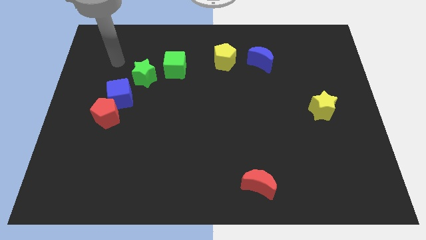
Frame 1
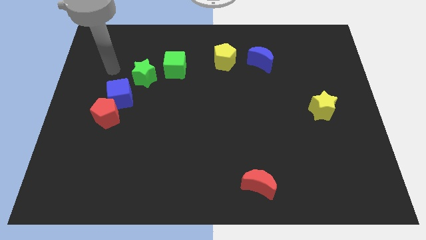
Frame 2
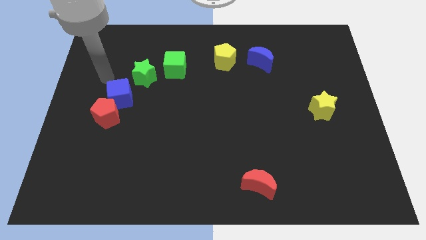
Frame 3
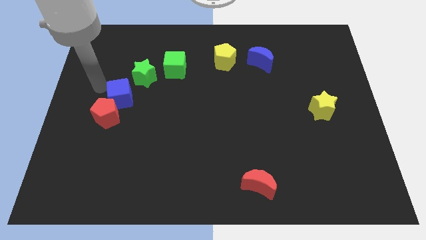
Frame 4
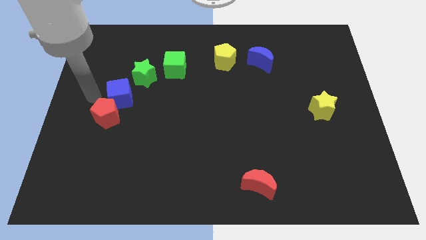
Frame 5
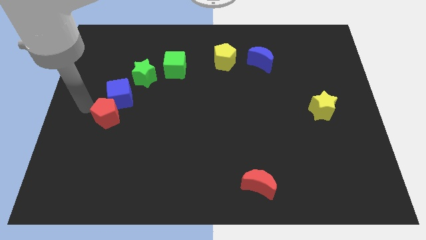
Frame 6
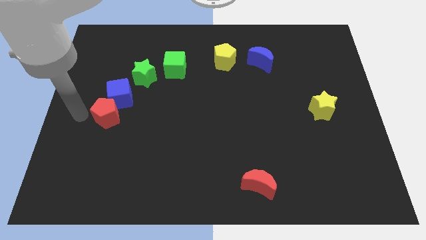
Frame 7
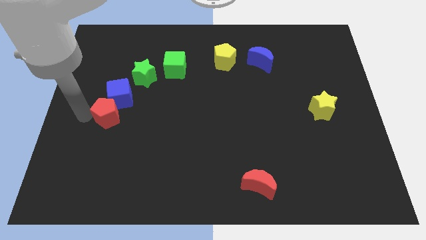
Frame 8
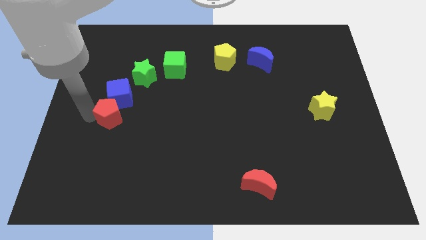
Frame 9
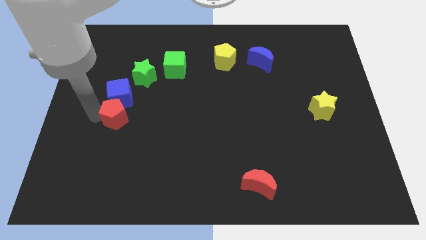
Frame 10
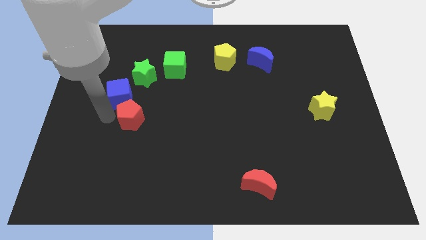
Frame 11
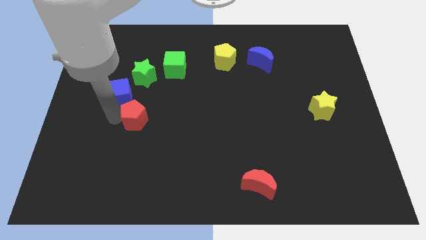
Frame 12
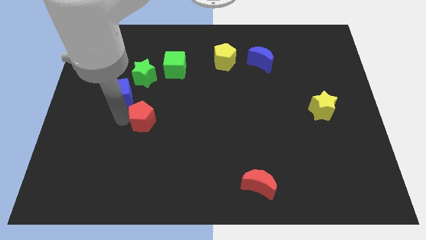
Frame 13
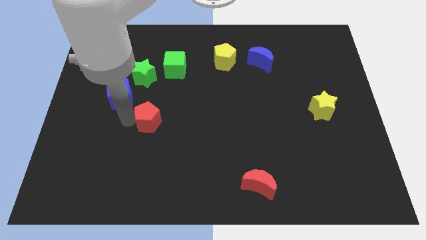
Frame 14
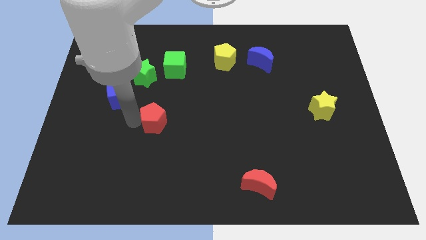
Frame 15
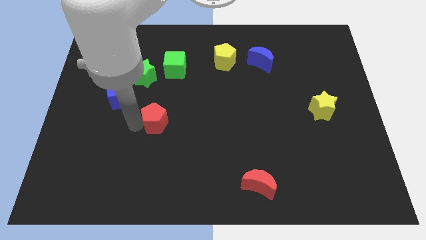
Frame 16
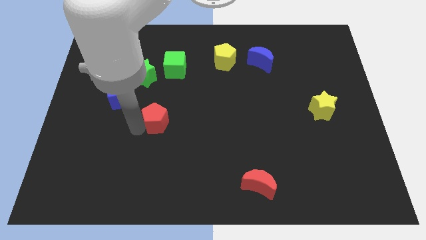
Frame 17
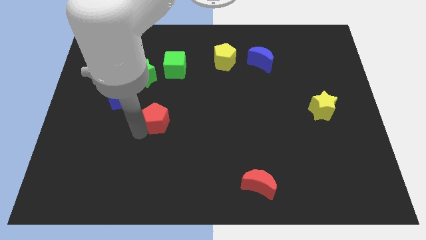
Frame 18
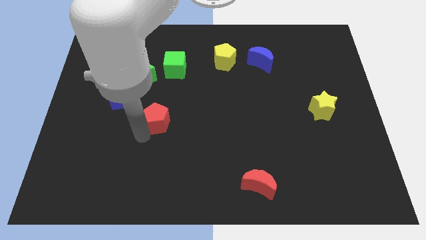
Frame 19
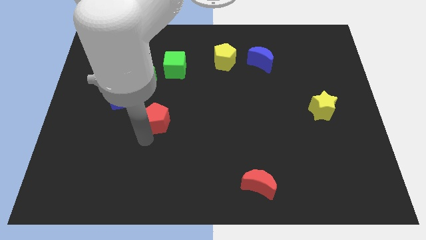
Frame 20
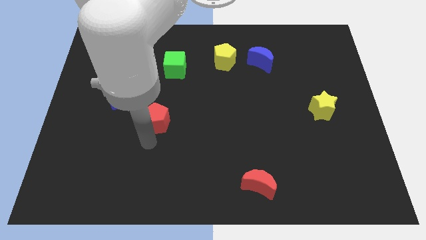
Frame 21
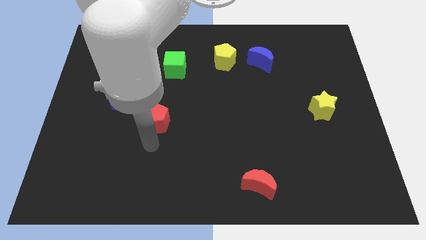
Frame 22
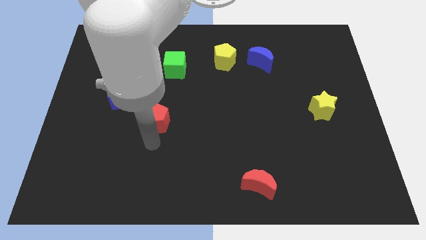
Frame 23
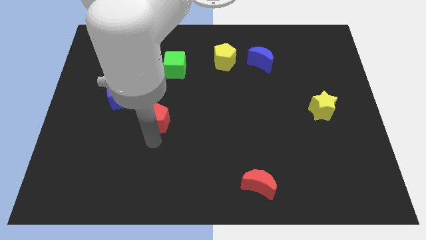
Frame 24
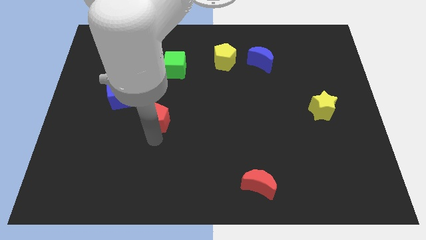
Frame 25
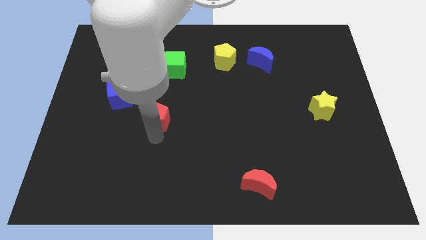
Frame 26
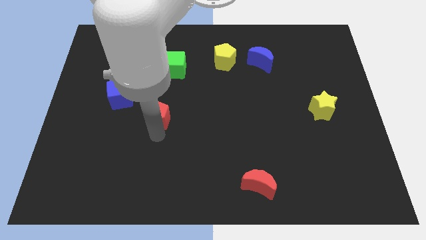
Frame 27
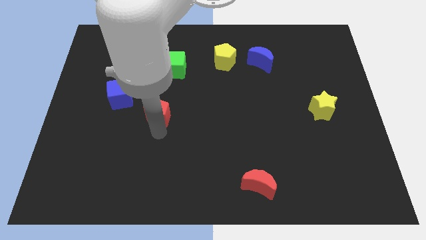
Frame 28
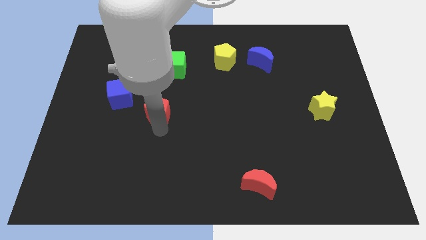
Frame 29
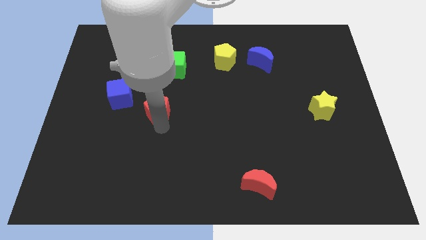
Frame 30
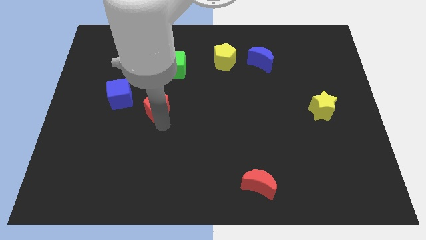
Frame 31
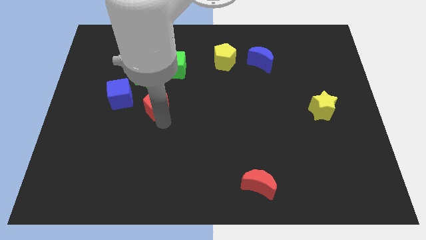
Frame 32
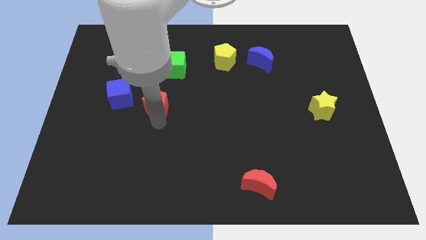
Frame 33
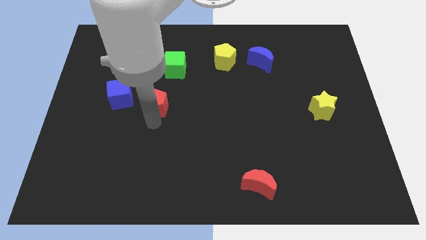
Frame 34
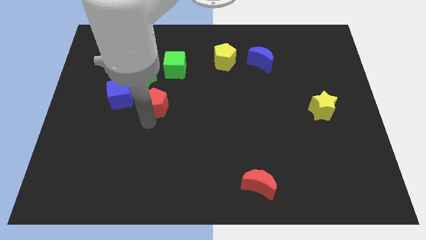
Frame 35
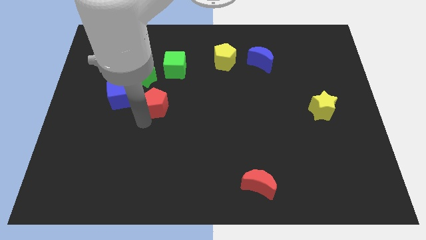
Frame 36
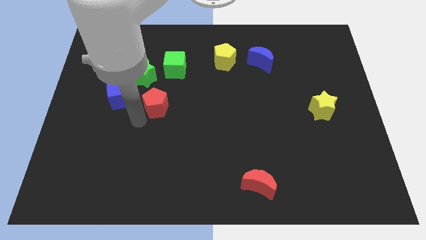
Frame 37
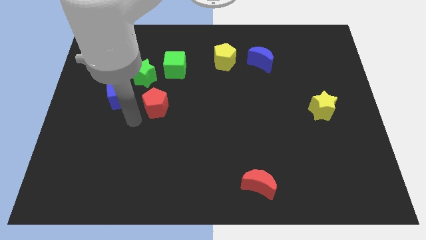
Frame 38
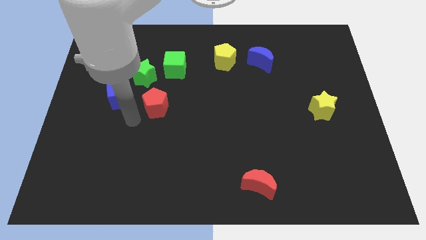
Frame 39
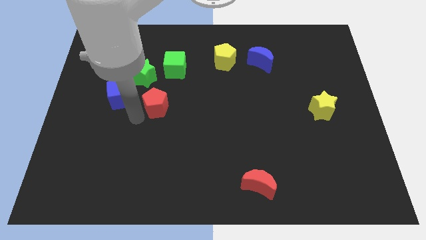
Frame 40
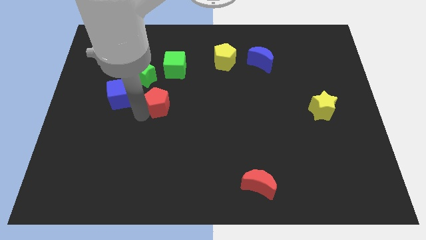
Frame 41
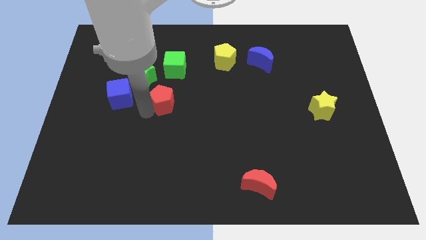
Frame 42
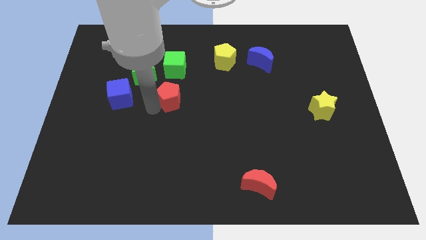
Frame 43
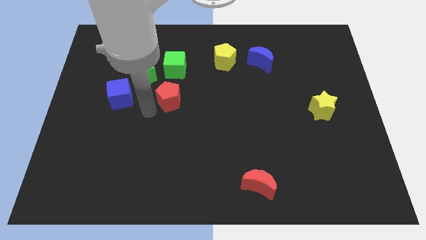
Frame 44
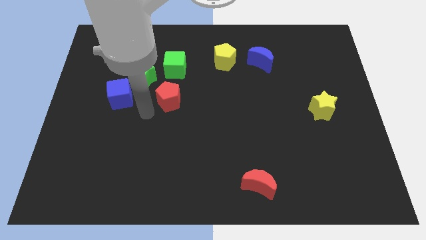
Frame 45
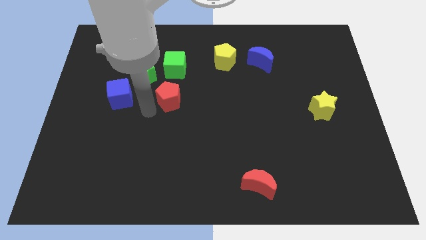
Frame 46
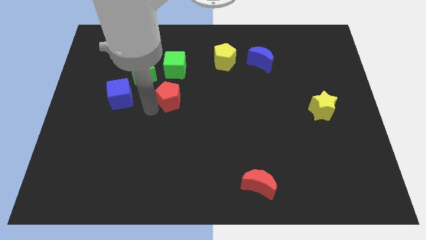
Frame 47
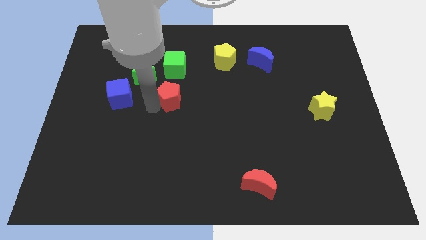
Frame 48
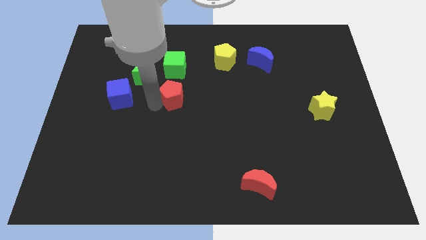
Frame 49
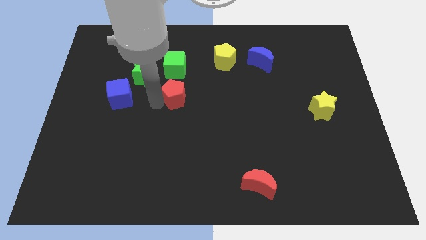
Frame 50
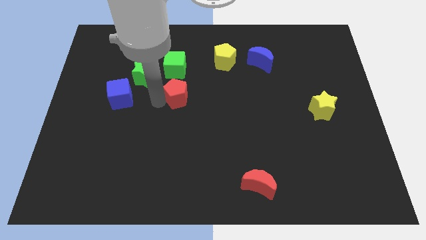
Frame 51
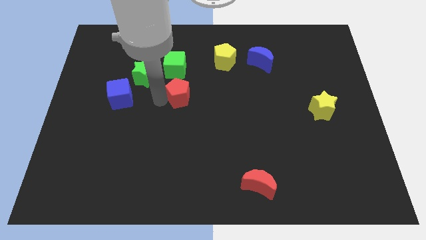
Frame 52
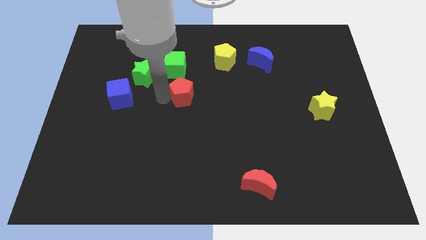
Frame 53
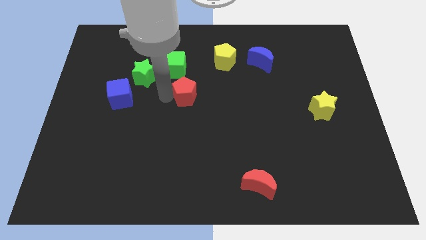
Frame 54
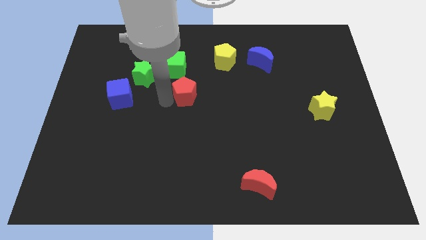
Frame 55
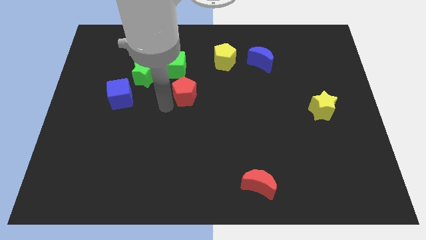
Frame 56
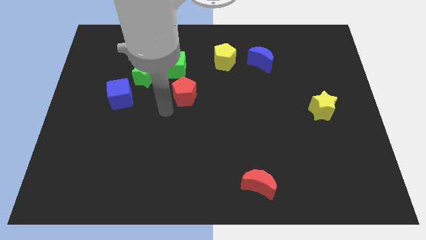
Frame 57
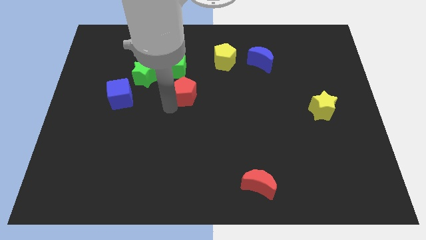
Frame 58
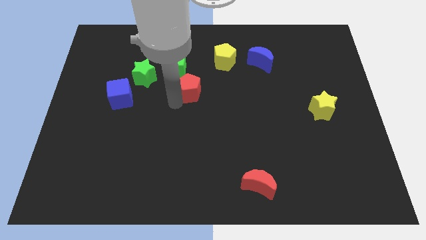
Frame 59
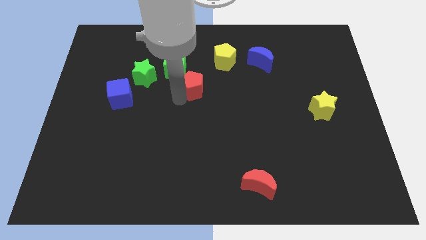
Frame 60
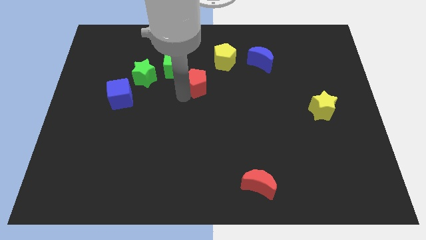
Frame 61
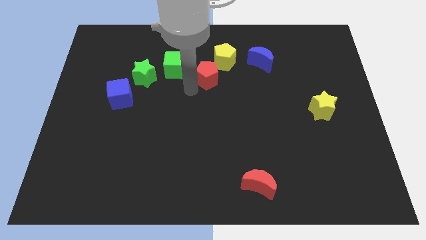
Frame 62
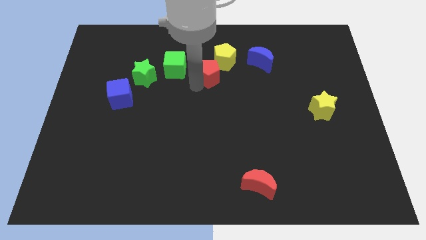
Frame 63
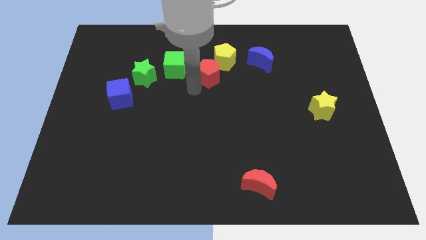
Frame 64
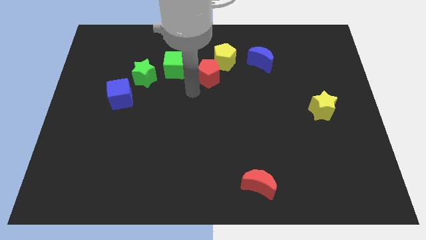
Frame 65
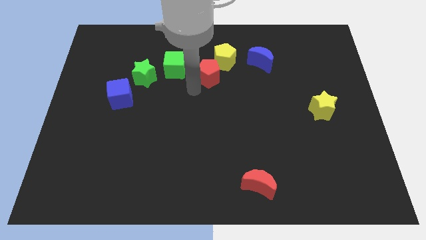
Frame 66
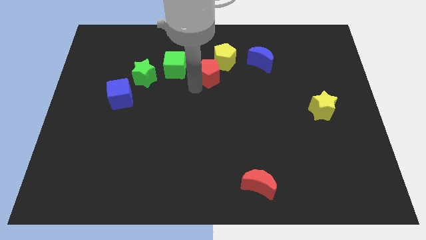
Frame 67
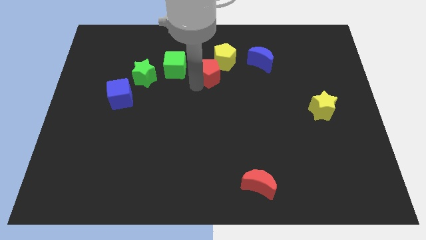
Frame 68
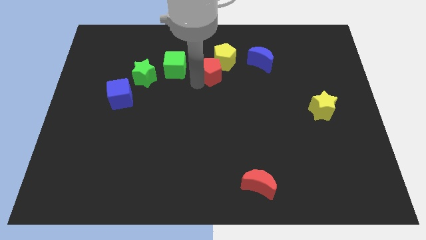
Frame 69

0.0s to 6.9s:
slide the red pentagon towards the yellow pentagon
